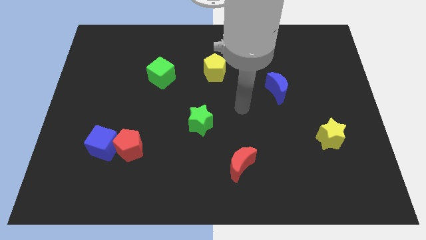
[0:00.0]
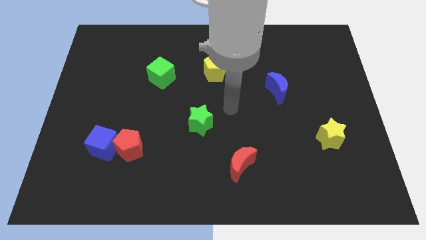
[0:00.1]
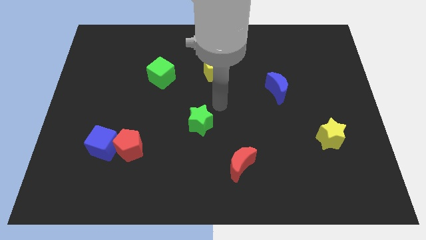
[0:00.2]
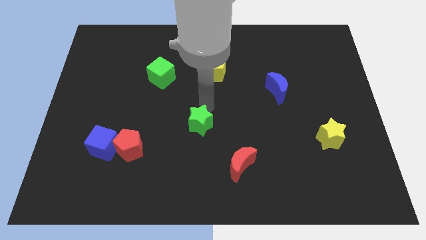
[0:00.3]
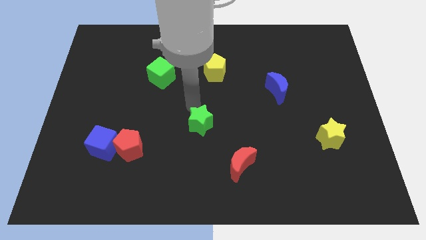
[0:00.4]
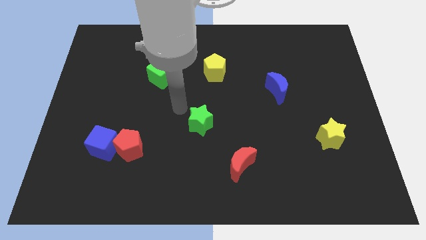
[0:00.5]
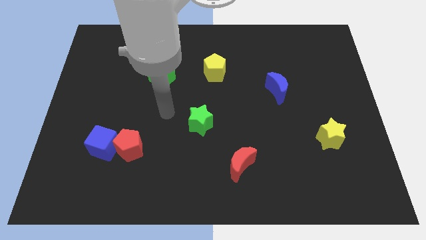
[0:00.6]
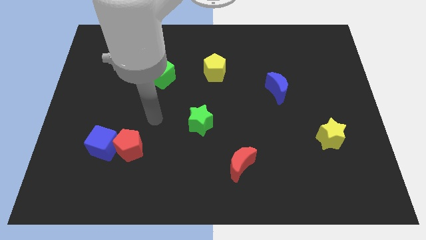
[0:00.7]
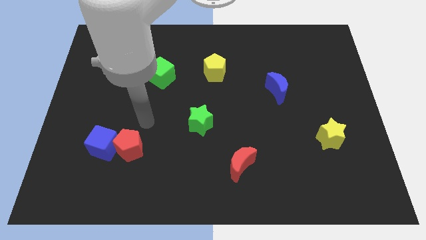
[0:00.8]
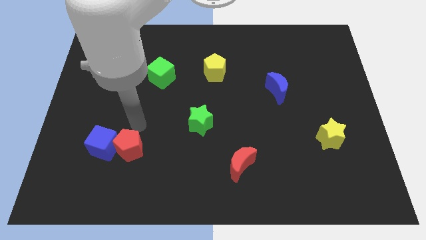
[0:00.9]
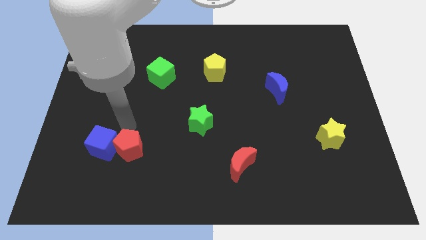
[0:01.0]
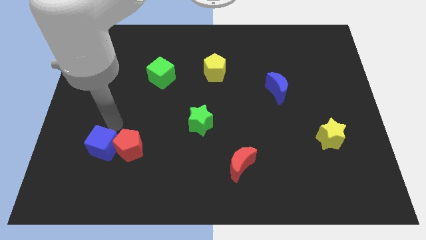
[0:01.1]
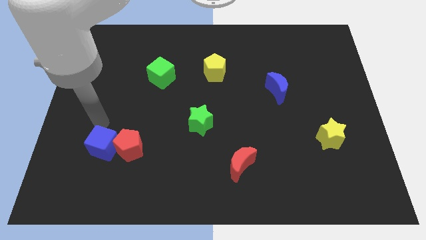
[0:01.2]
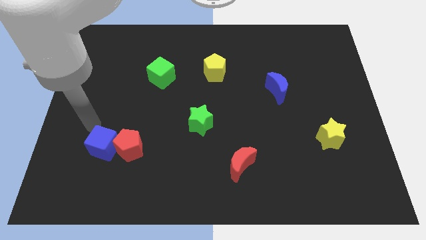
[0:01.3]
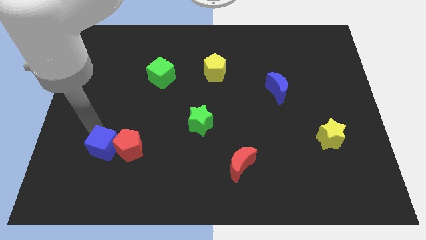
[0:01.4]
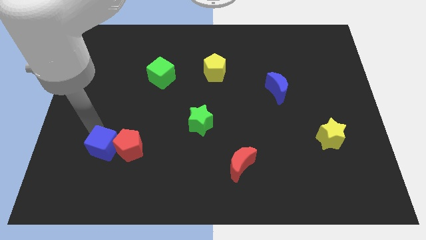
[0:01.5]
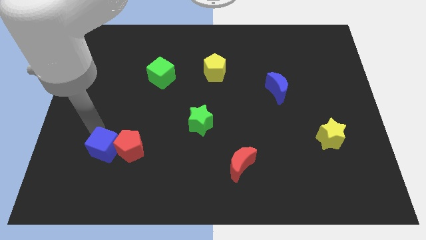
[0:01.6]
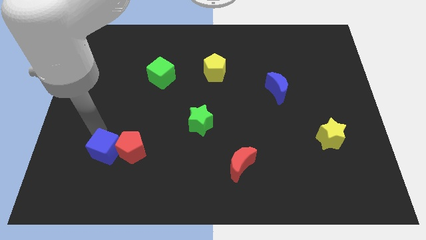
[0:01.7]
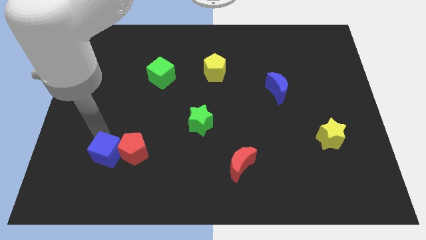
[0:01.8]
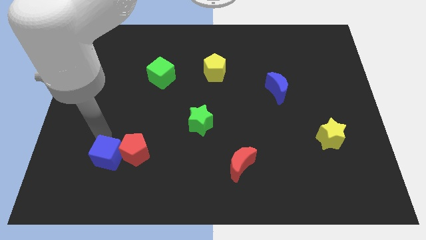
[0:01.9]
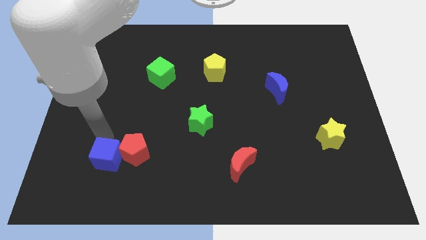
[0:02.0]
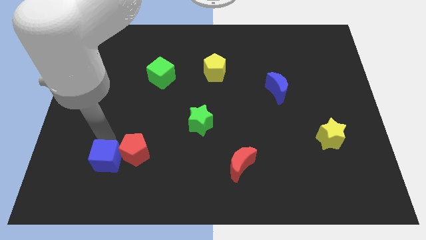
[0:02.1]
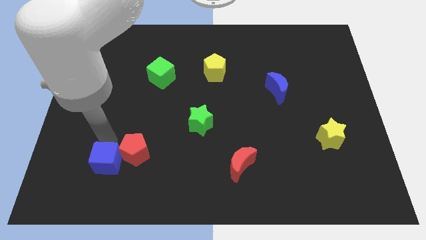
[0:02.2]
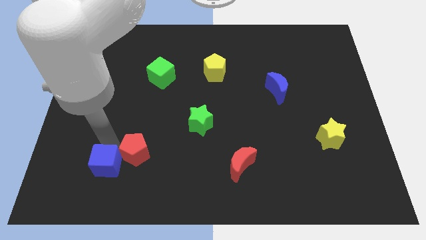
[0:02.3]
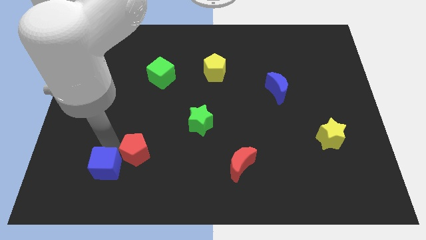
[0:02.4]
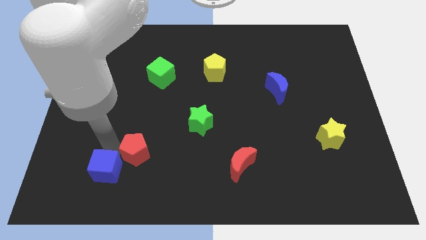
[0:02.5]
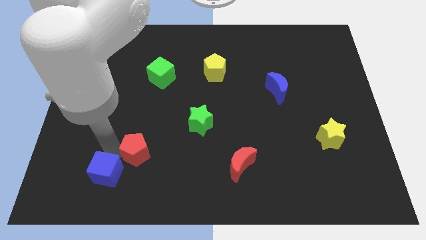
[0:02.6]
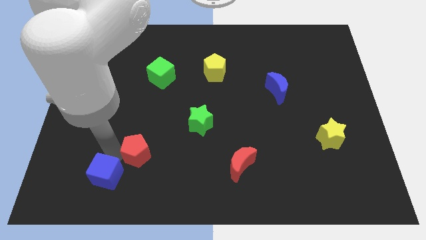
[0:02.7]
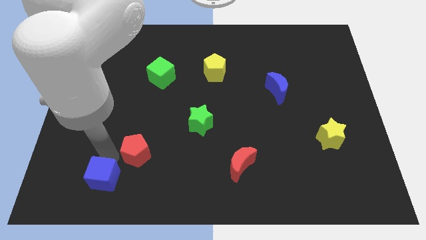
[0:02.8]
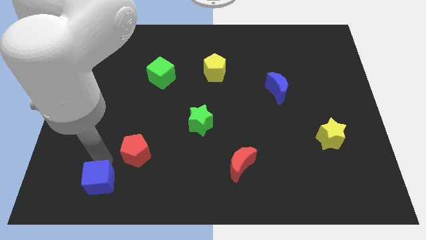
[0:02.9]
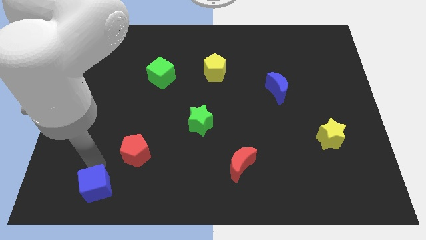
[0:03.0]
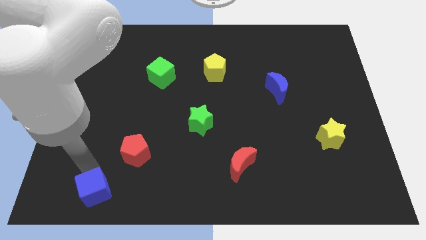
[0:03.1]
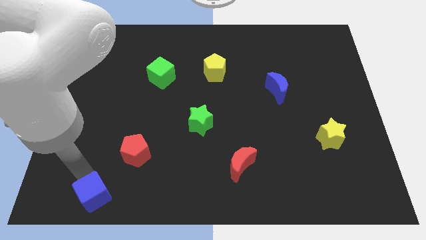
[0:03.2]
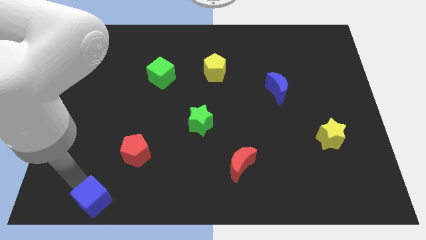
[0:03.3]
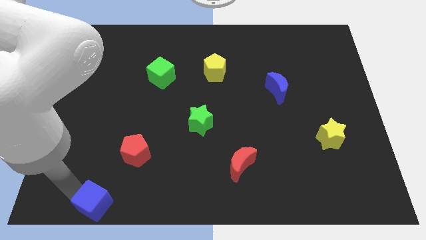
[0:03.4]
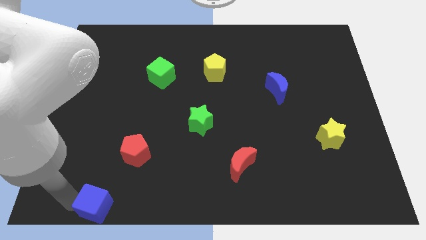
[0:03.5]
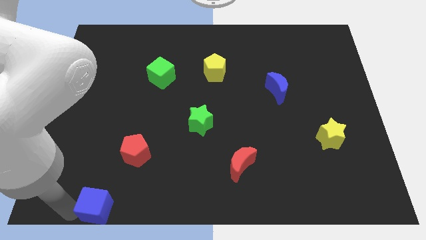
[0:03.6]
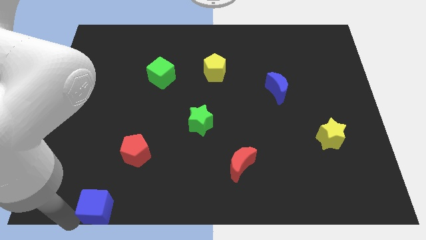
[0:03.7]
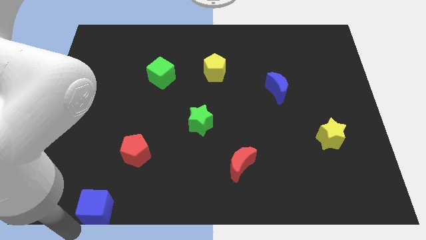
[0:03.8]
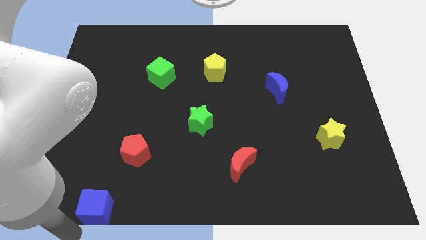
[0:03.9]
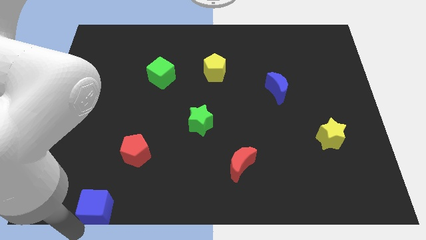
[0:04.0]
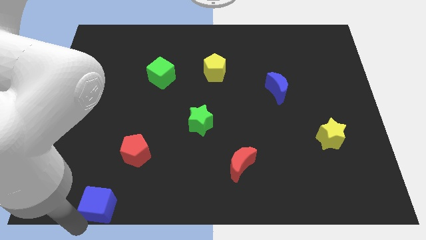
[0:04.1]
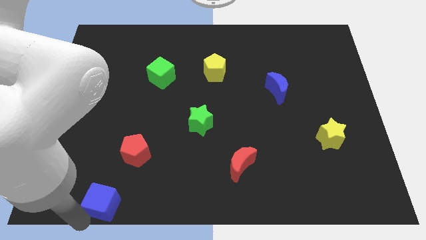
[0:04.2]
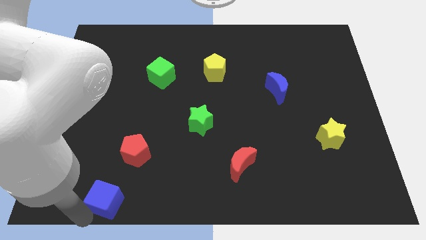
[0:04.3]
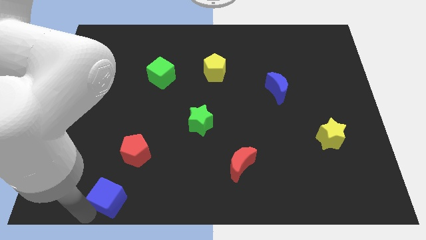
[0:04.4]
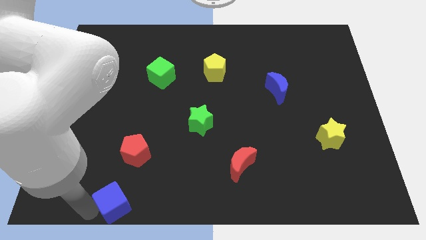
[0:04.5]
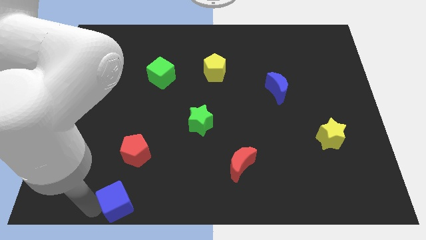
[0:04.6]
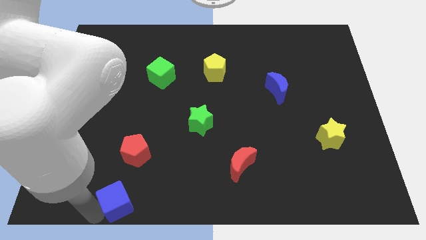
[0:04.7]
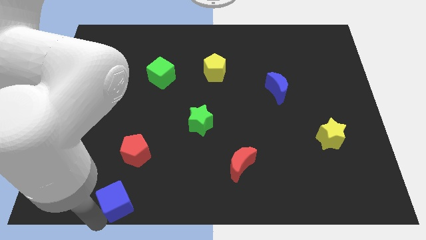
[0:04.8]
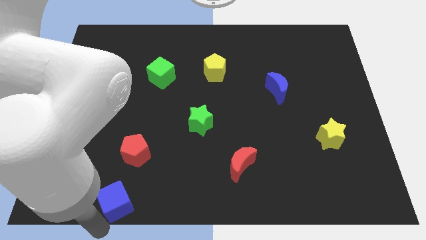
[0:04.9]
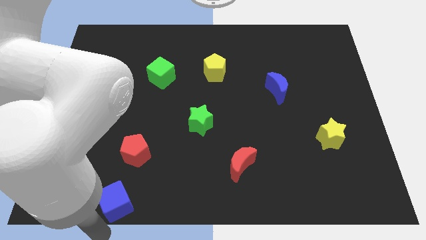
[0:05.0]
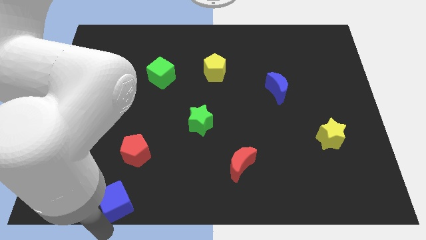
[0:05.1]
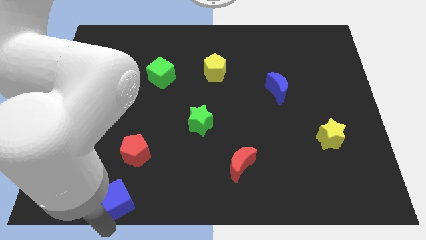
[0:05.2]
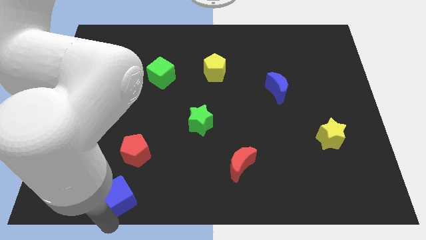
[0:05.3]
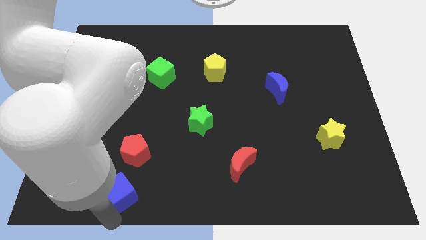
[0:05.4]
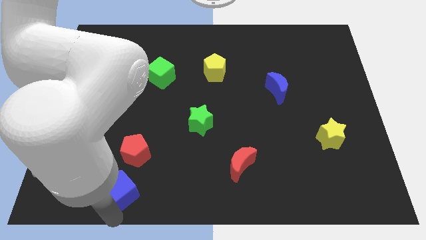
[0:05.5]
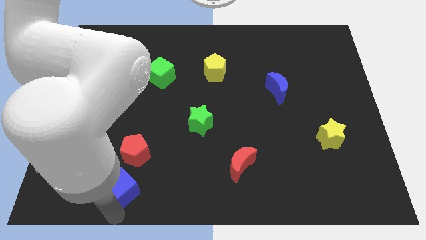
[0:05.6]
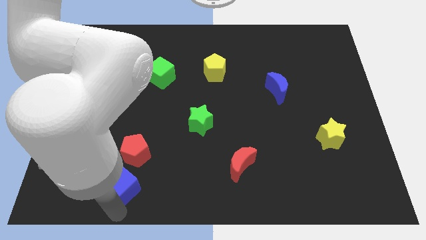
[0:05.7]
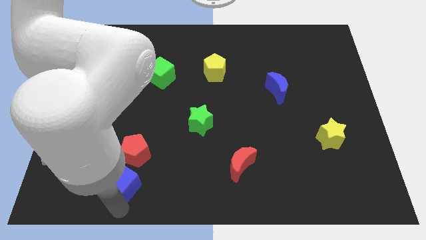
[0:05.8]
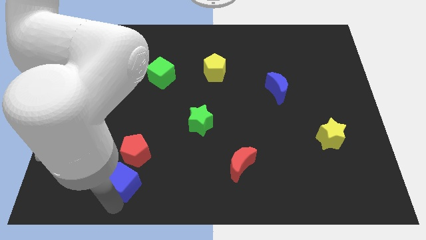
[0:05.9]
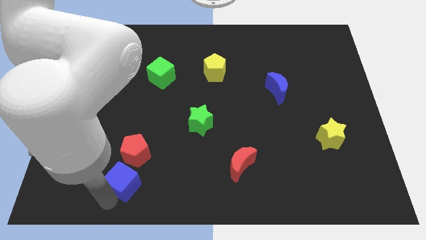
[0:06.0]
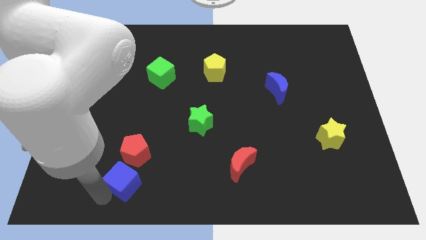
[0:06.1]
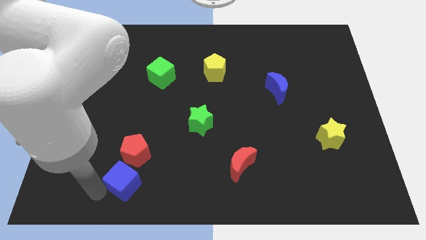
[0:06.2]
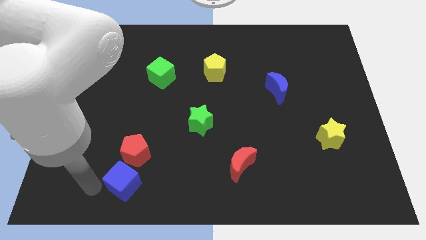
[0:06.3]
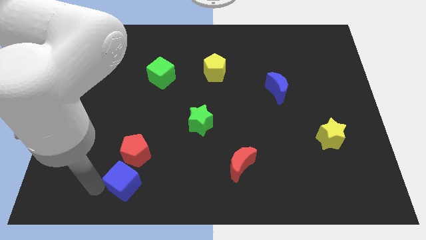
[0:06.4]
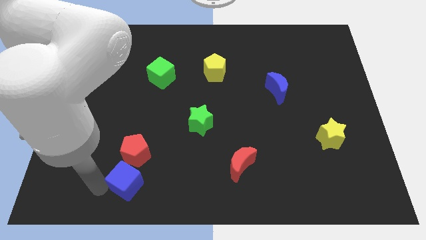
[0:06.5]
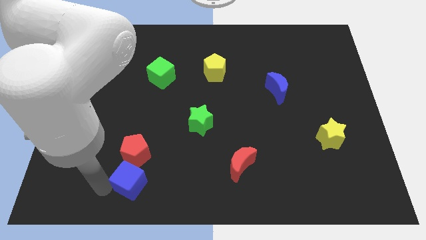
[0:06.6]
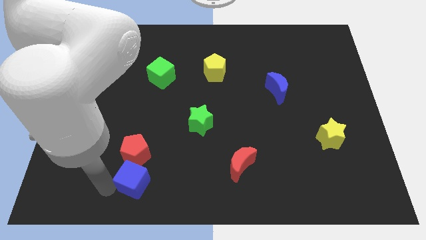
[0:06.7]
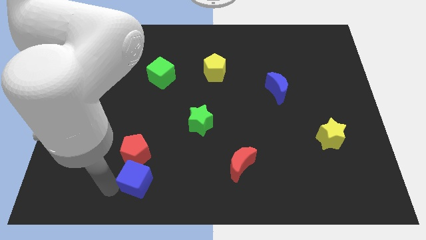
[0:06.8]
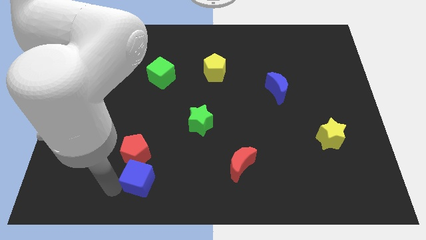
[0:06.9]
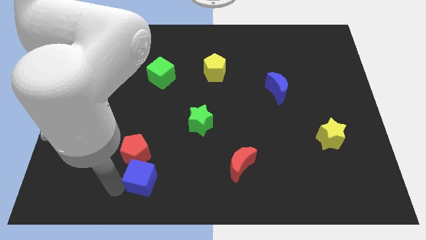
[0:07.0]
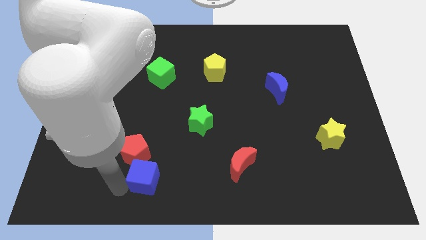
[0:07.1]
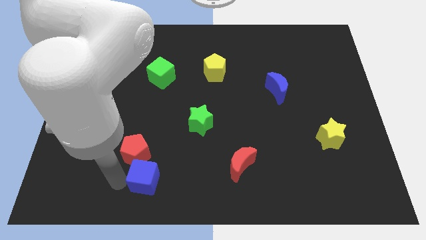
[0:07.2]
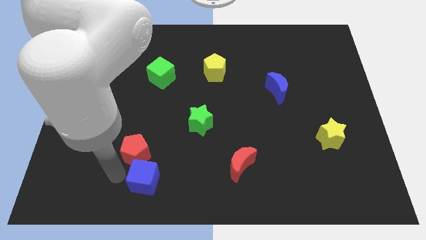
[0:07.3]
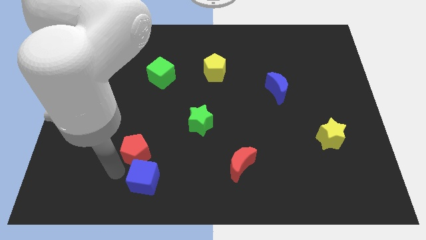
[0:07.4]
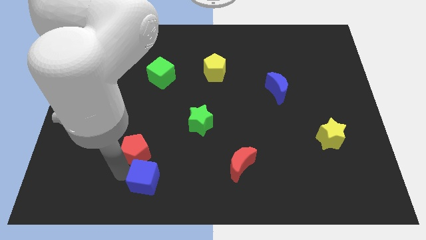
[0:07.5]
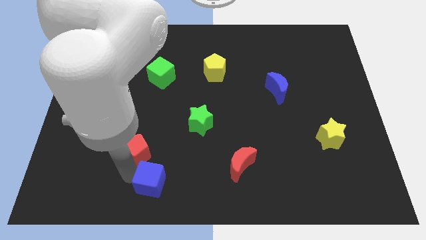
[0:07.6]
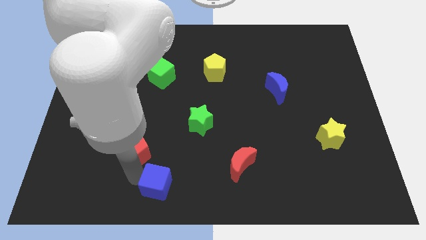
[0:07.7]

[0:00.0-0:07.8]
slide the blue cube to the bottom side
